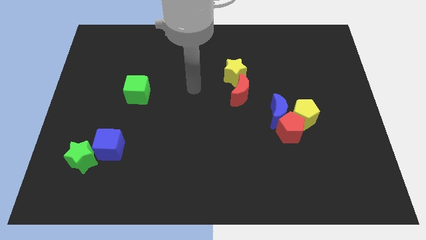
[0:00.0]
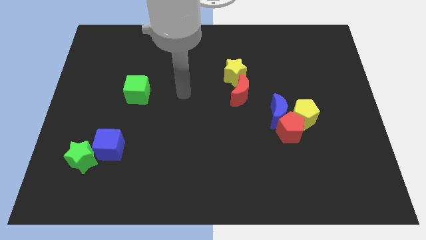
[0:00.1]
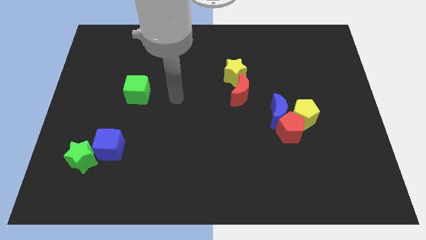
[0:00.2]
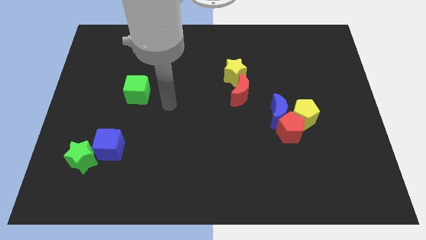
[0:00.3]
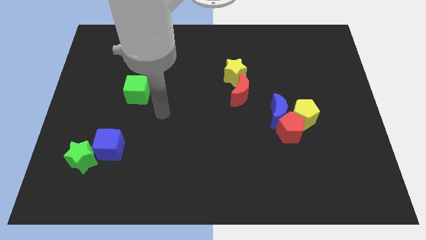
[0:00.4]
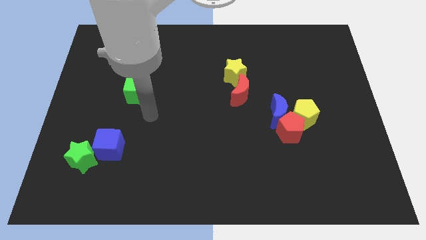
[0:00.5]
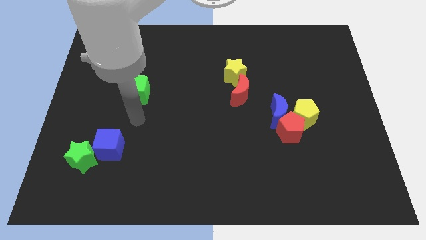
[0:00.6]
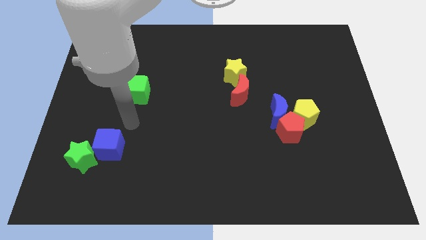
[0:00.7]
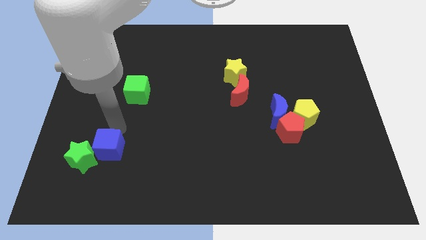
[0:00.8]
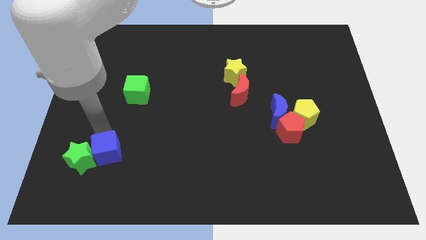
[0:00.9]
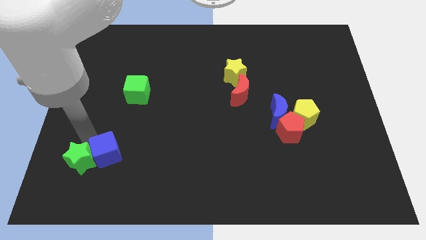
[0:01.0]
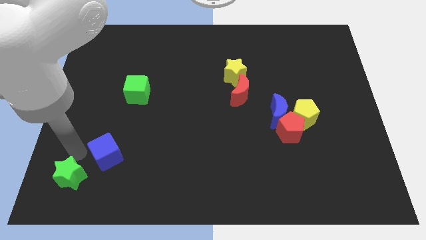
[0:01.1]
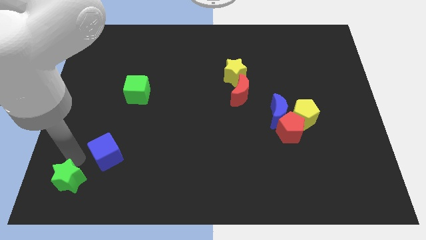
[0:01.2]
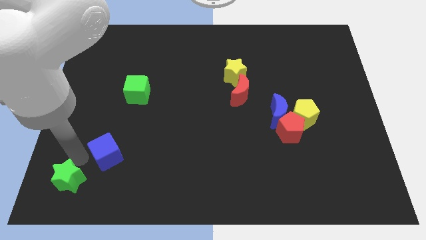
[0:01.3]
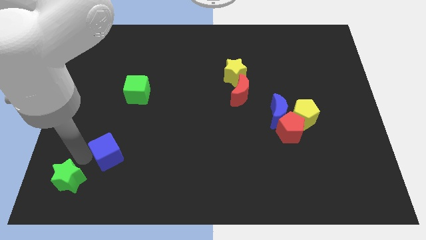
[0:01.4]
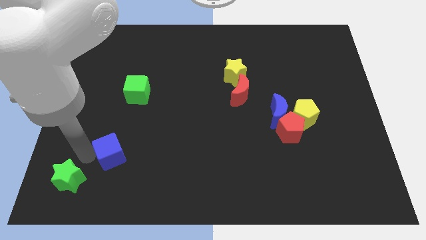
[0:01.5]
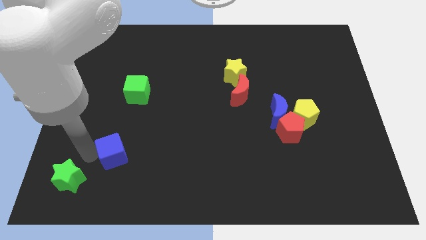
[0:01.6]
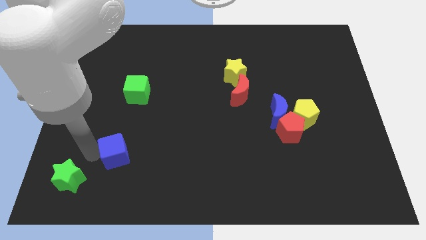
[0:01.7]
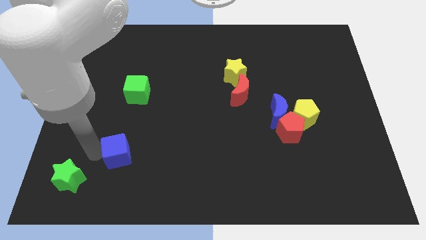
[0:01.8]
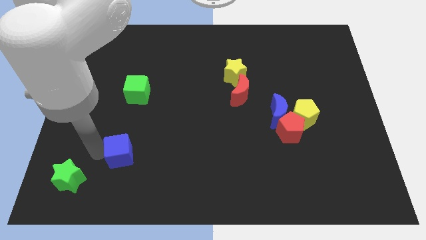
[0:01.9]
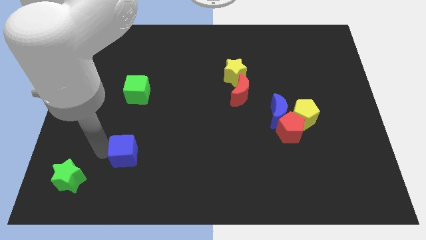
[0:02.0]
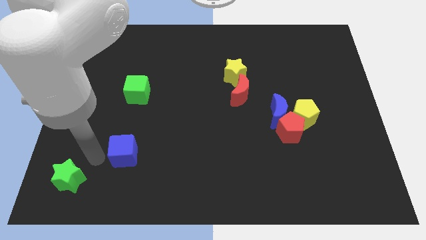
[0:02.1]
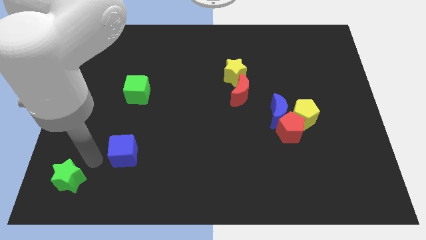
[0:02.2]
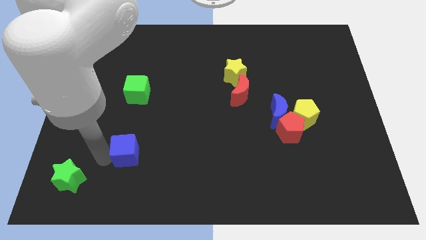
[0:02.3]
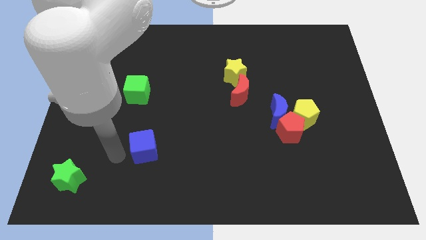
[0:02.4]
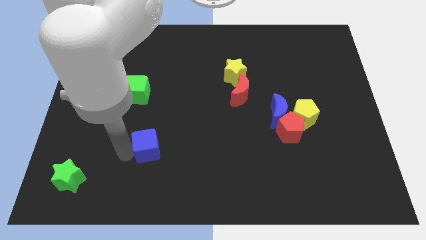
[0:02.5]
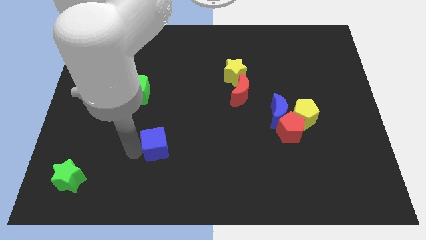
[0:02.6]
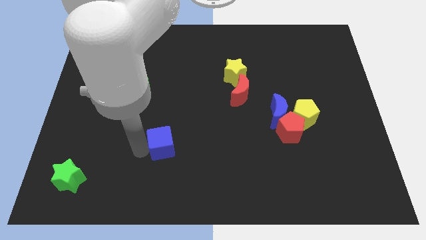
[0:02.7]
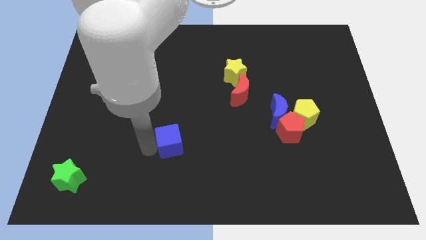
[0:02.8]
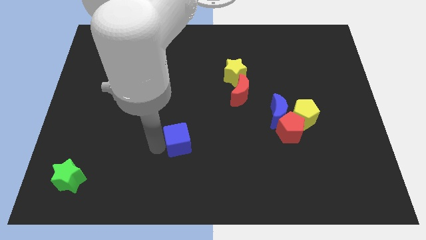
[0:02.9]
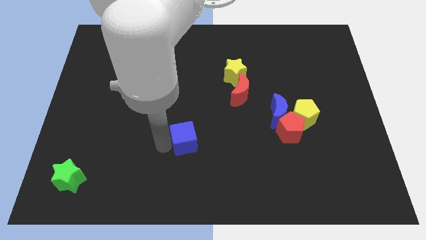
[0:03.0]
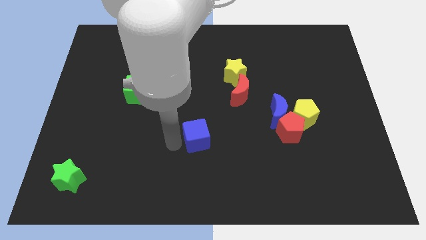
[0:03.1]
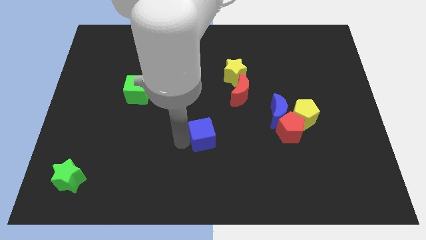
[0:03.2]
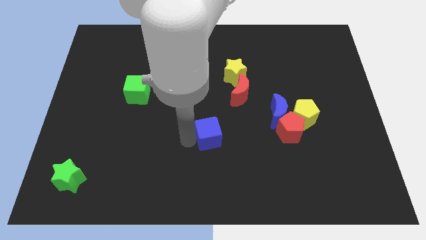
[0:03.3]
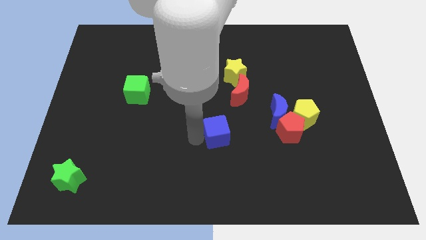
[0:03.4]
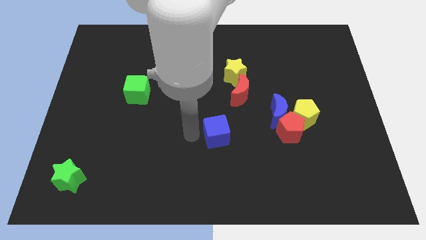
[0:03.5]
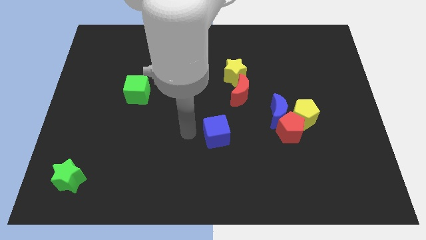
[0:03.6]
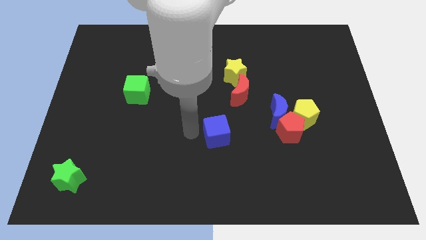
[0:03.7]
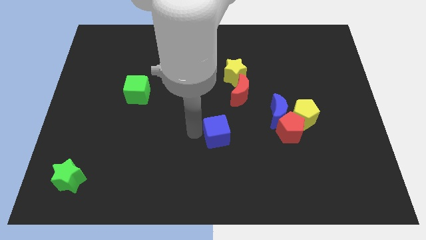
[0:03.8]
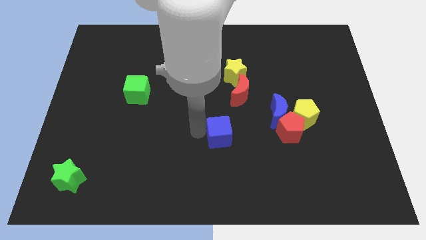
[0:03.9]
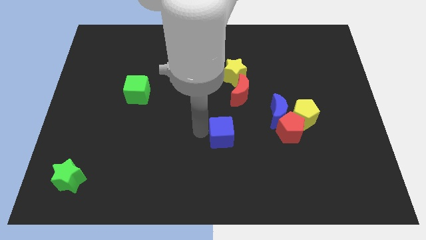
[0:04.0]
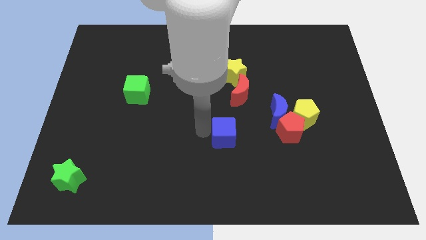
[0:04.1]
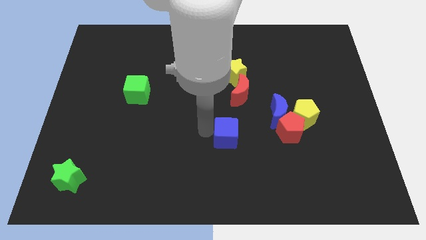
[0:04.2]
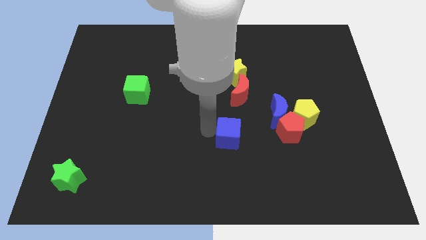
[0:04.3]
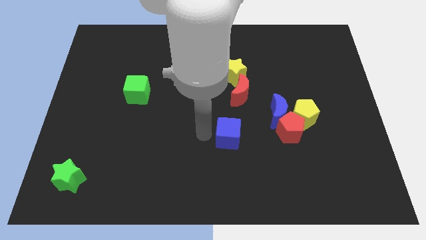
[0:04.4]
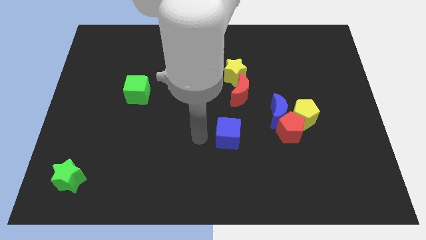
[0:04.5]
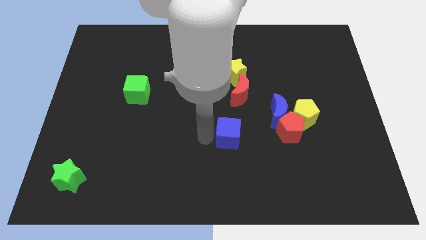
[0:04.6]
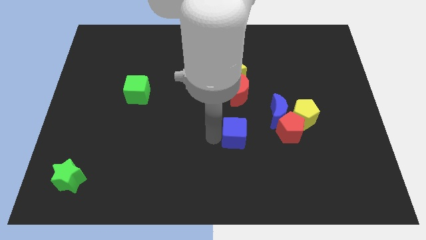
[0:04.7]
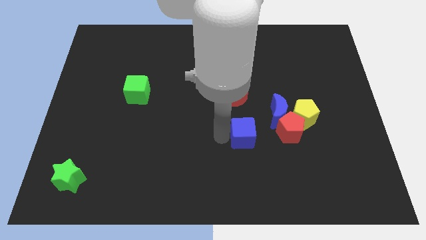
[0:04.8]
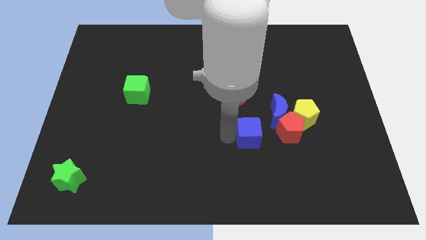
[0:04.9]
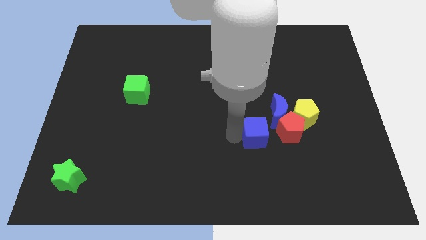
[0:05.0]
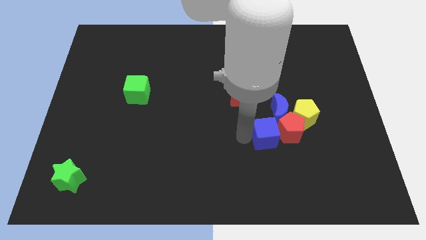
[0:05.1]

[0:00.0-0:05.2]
push the blue cube to the red pentagon

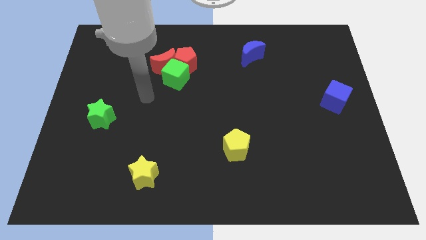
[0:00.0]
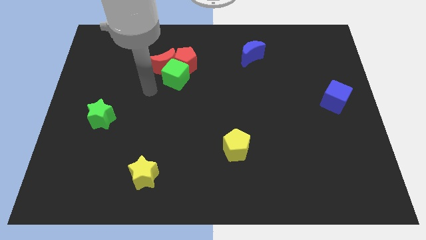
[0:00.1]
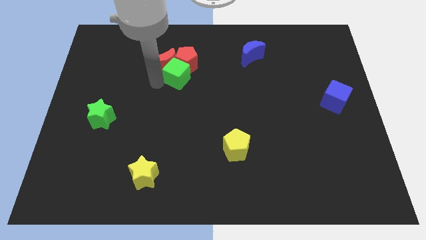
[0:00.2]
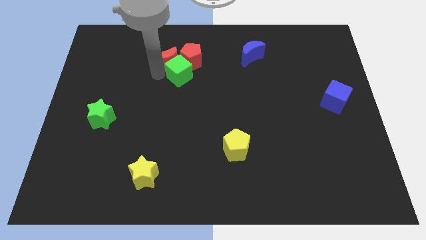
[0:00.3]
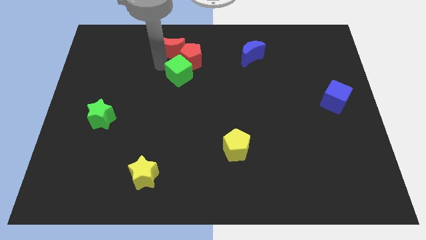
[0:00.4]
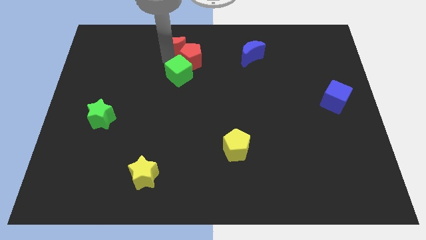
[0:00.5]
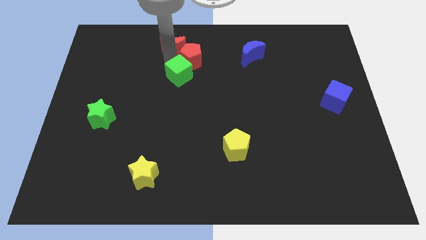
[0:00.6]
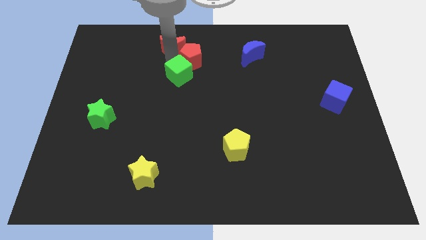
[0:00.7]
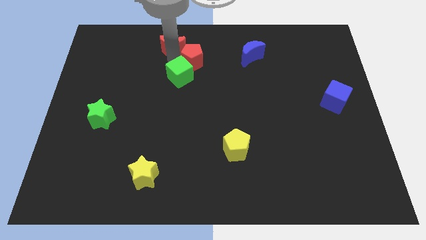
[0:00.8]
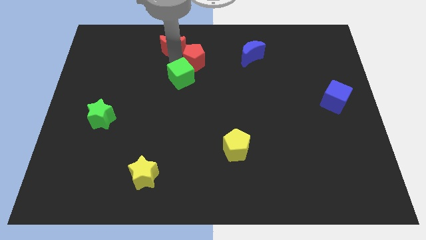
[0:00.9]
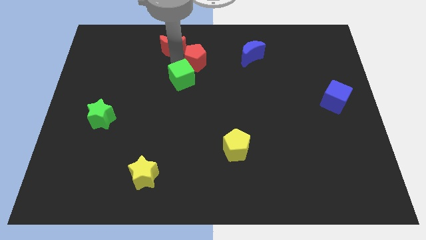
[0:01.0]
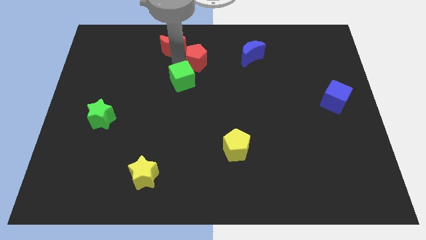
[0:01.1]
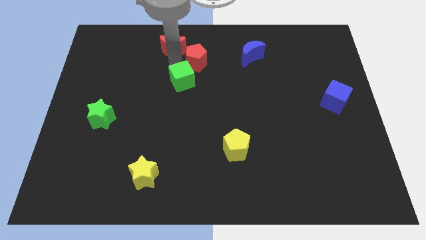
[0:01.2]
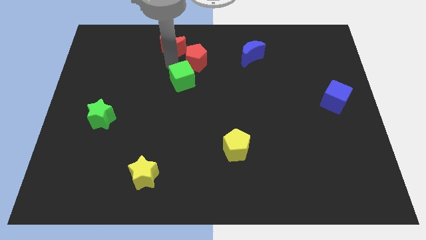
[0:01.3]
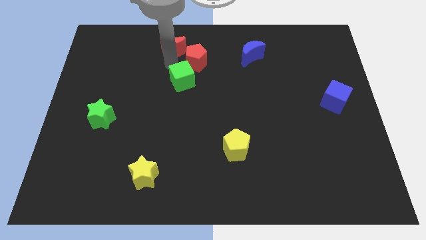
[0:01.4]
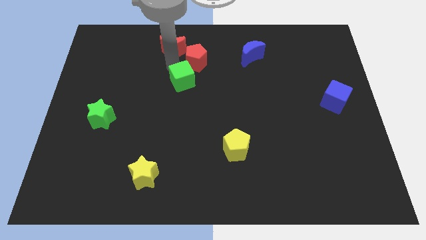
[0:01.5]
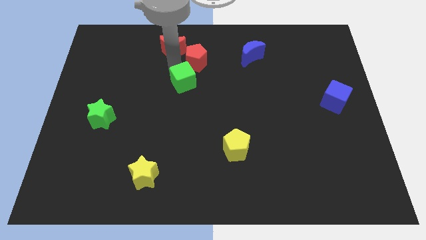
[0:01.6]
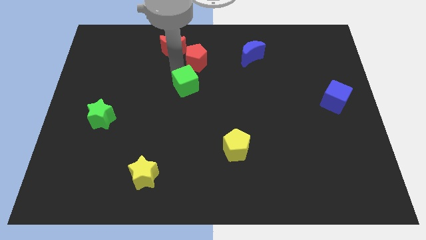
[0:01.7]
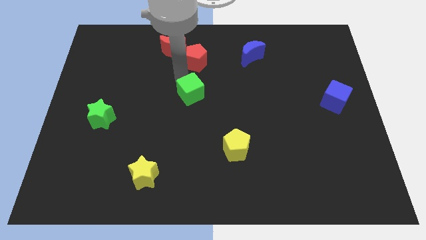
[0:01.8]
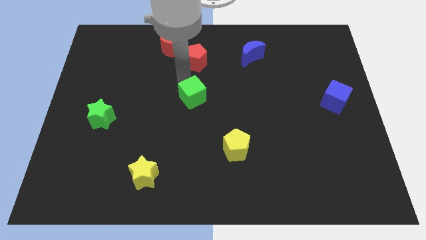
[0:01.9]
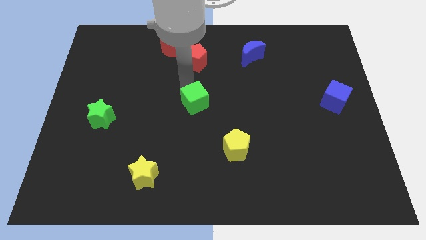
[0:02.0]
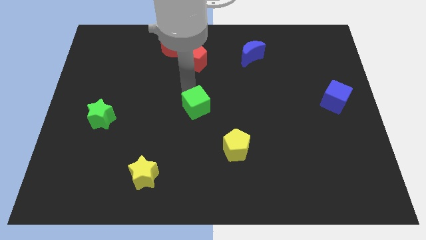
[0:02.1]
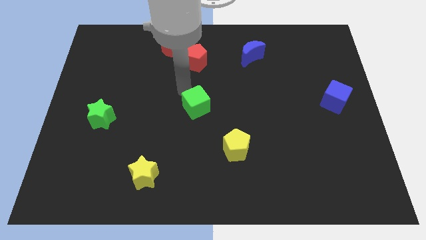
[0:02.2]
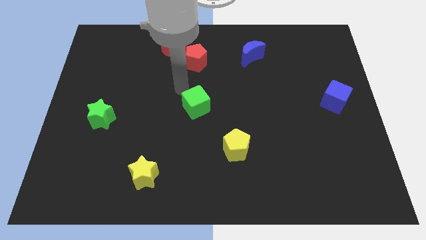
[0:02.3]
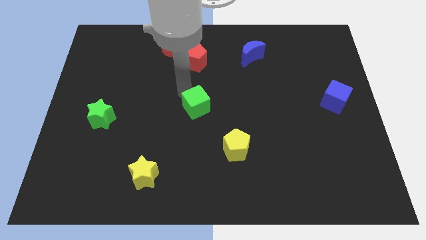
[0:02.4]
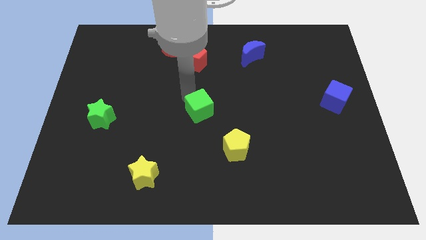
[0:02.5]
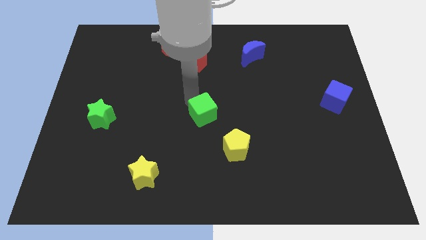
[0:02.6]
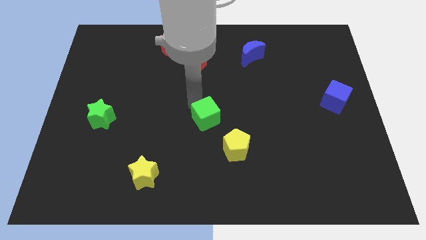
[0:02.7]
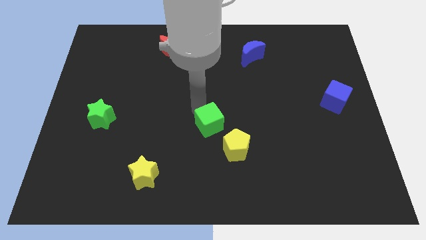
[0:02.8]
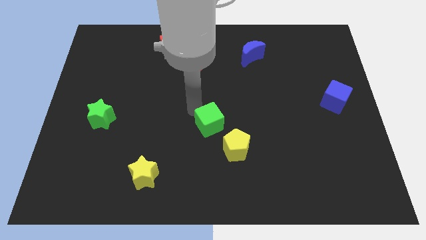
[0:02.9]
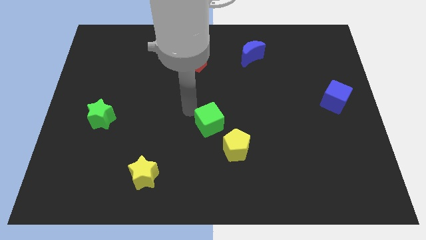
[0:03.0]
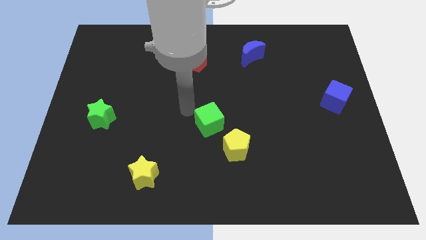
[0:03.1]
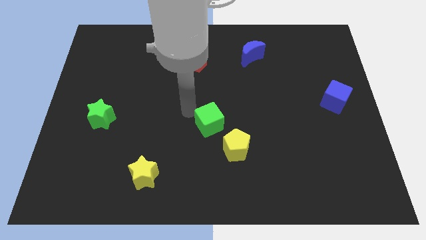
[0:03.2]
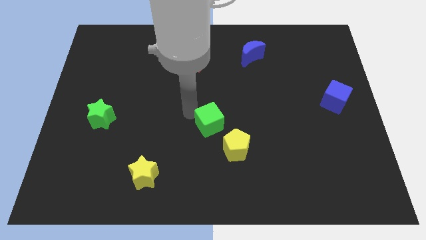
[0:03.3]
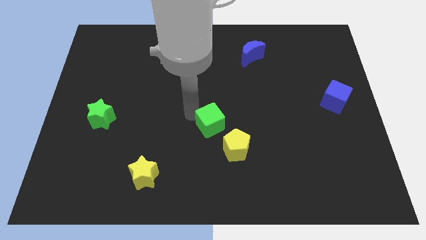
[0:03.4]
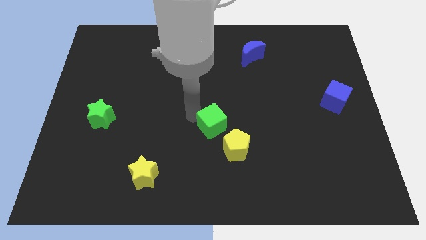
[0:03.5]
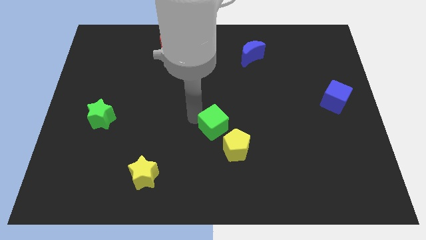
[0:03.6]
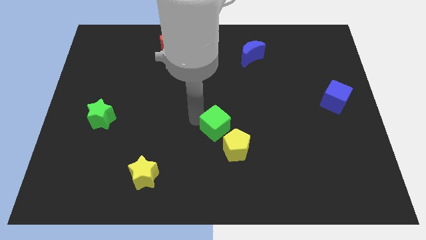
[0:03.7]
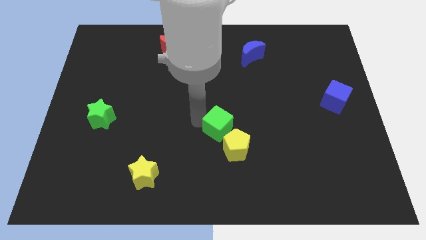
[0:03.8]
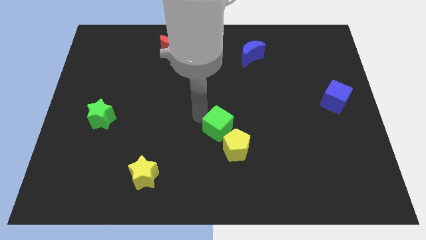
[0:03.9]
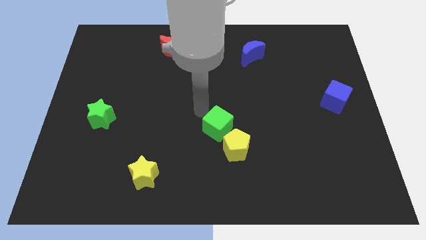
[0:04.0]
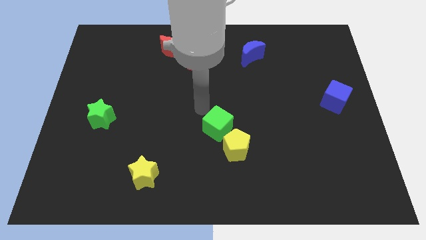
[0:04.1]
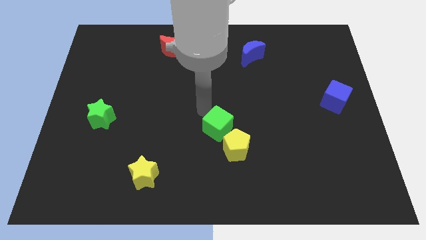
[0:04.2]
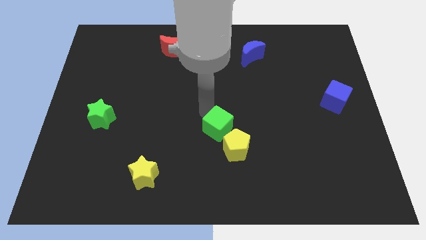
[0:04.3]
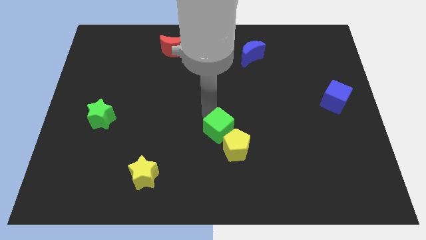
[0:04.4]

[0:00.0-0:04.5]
slide the green cube towards the yellow pentagon
